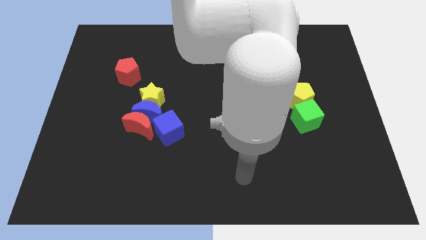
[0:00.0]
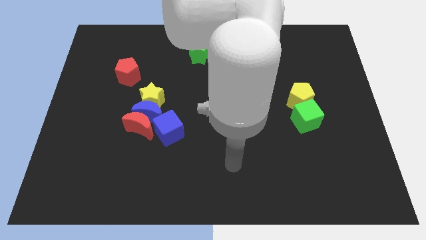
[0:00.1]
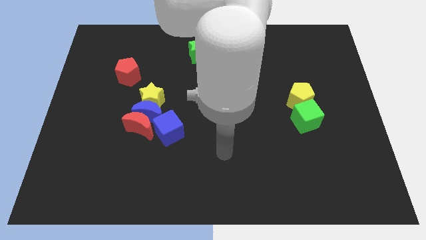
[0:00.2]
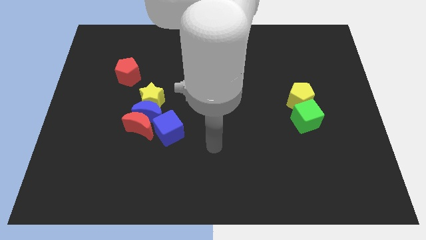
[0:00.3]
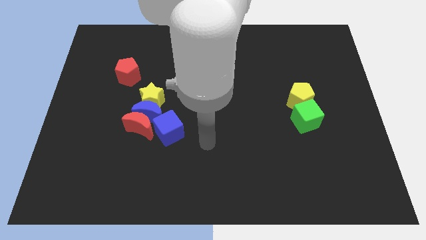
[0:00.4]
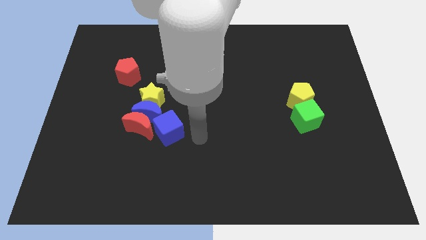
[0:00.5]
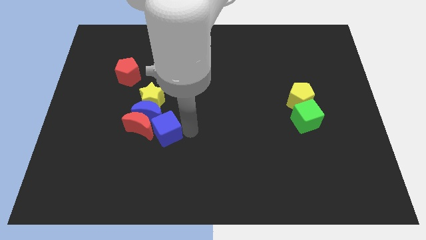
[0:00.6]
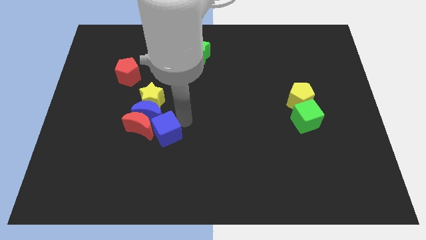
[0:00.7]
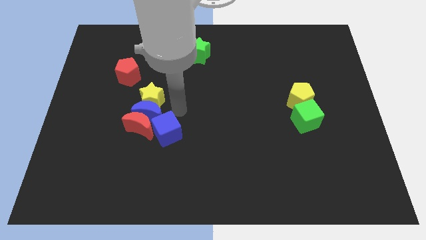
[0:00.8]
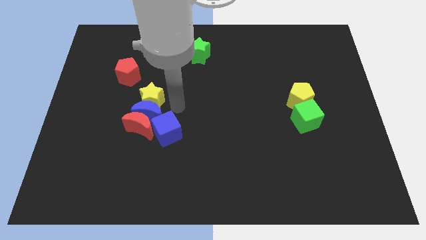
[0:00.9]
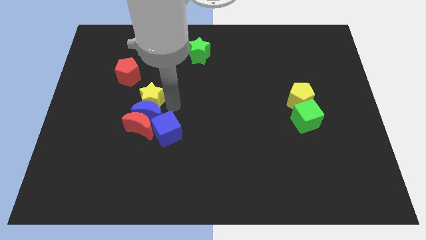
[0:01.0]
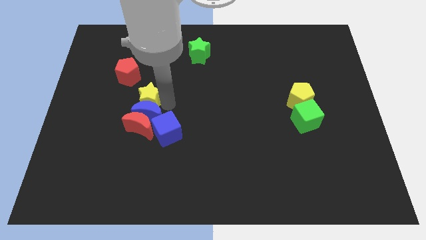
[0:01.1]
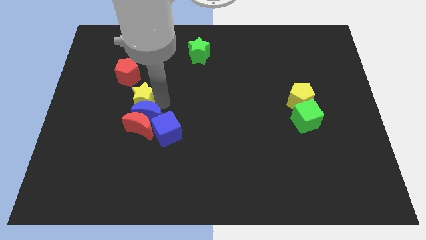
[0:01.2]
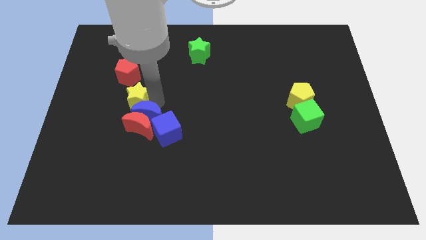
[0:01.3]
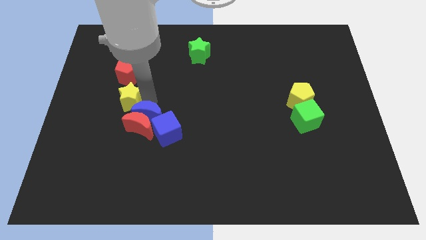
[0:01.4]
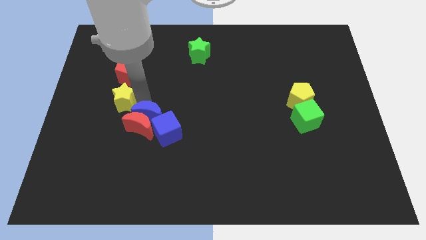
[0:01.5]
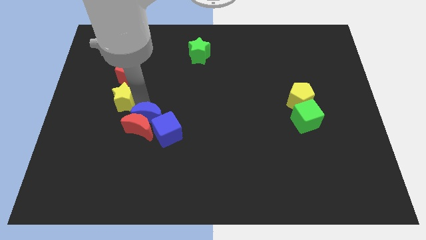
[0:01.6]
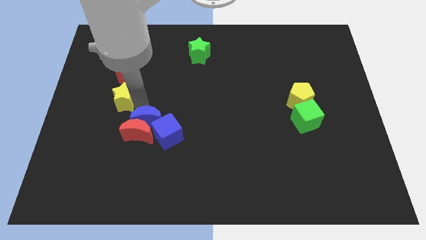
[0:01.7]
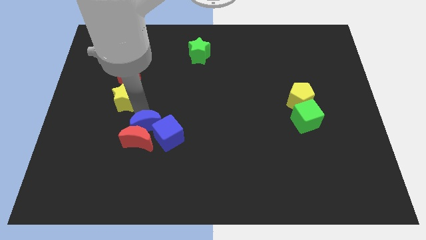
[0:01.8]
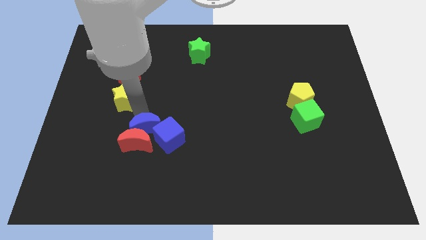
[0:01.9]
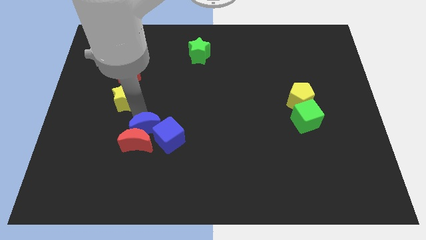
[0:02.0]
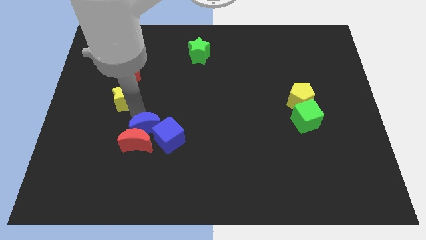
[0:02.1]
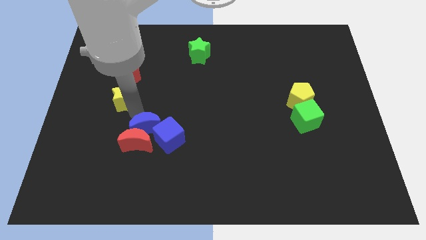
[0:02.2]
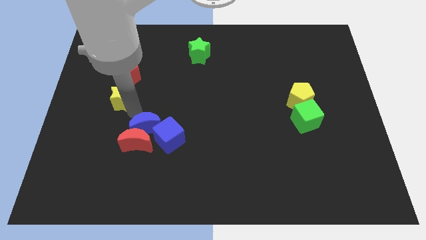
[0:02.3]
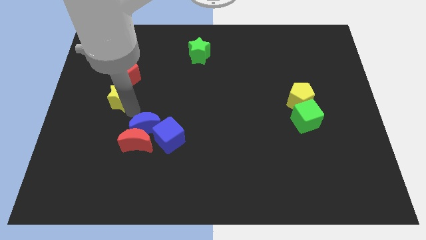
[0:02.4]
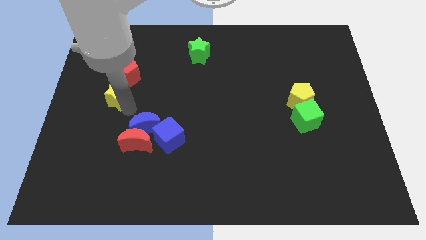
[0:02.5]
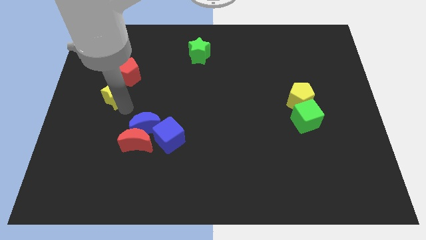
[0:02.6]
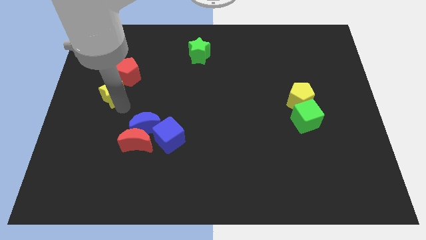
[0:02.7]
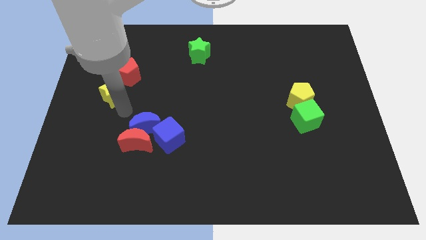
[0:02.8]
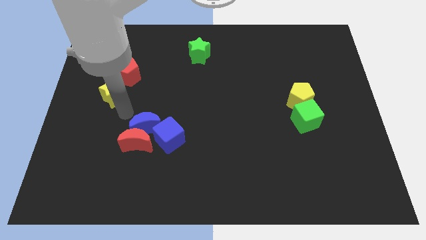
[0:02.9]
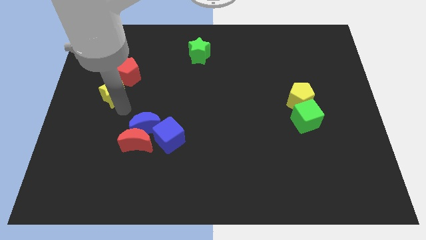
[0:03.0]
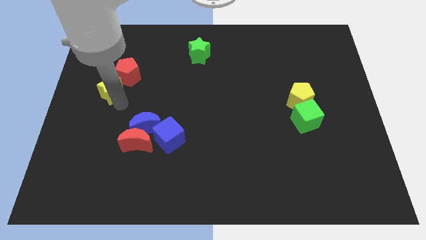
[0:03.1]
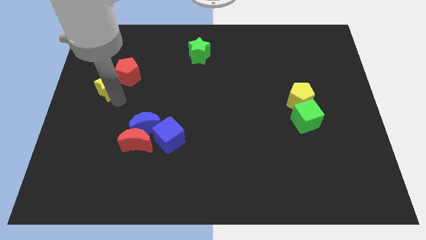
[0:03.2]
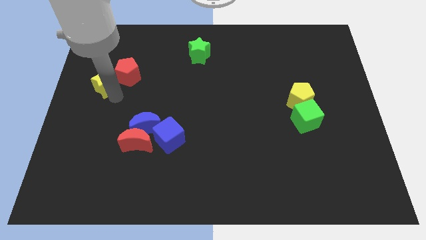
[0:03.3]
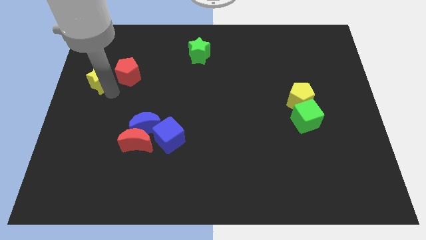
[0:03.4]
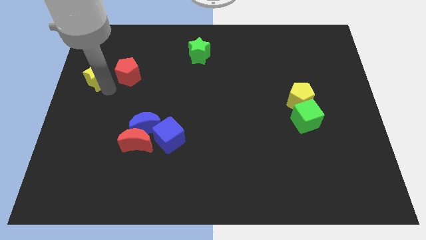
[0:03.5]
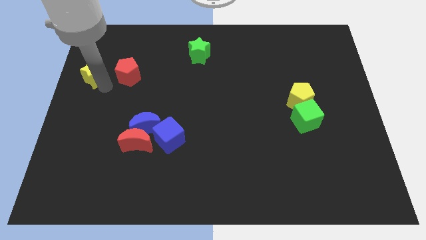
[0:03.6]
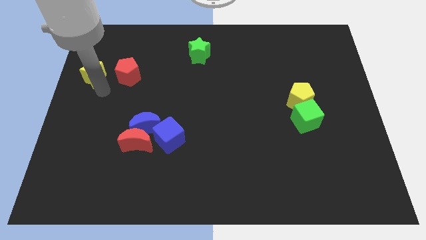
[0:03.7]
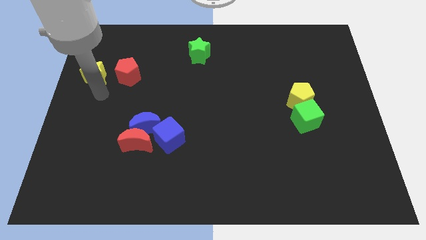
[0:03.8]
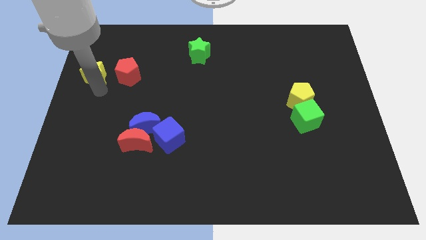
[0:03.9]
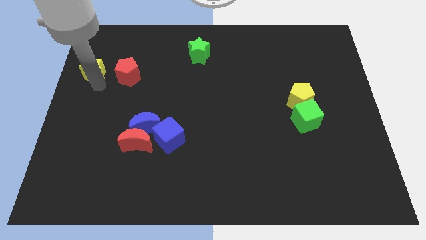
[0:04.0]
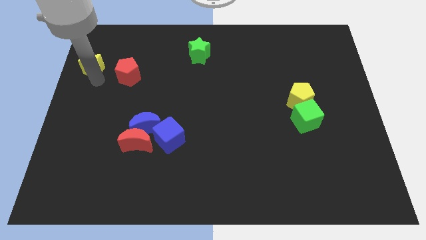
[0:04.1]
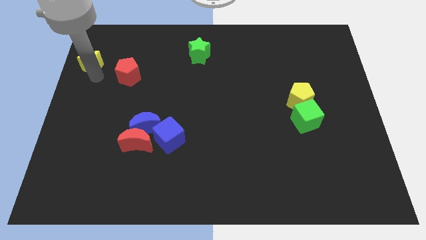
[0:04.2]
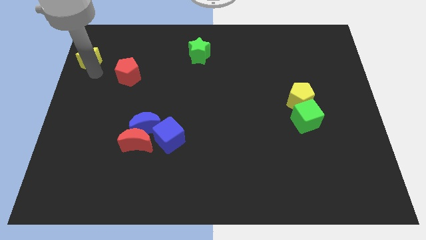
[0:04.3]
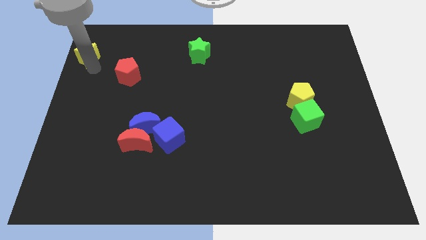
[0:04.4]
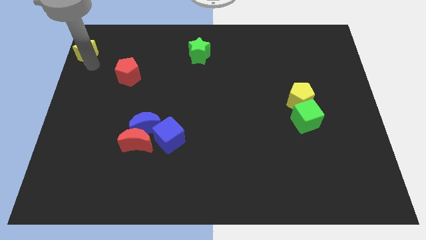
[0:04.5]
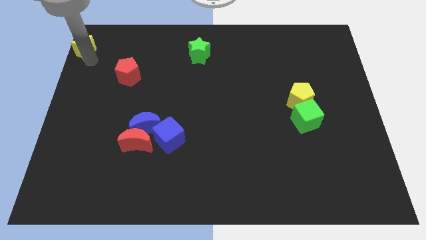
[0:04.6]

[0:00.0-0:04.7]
move the yellow star to the top left of the board

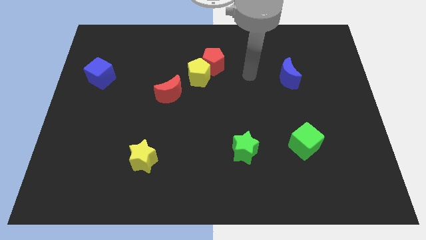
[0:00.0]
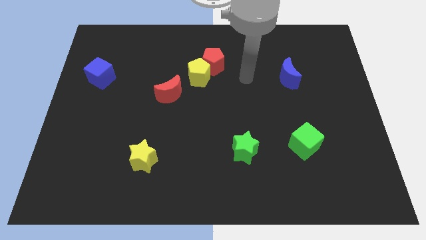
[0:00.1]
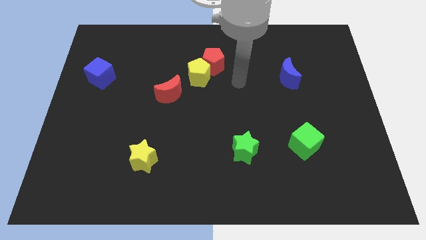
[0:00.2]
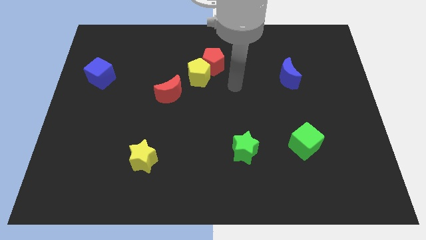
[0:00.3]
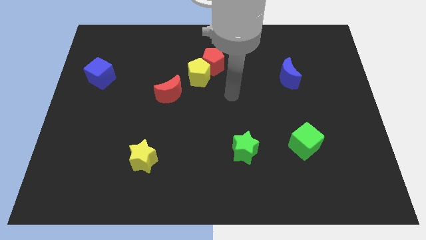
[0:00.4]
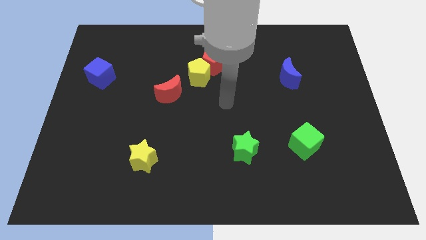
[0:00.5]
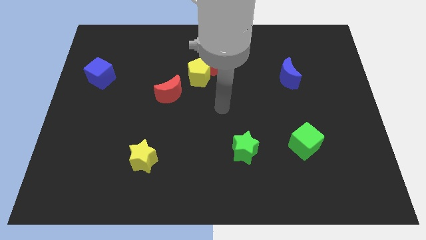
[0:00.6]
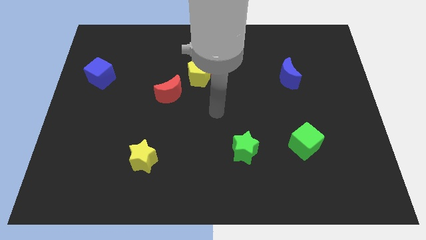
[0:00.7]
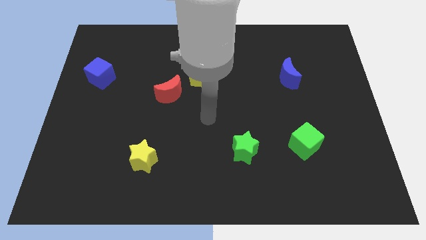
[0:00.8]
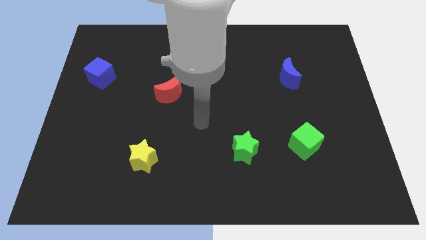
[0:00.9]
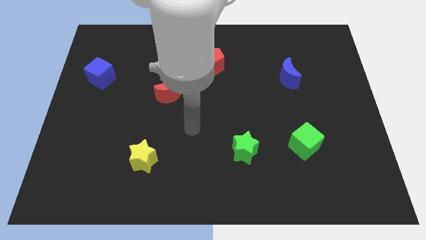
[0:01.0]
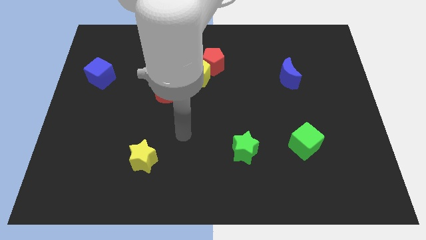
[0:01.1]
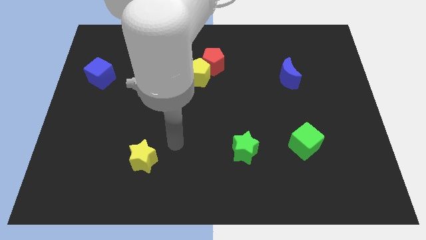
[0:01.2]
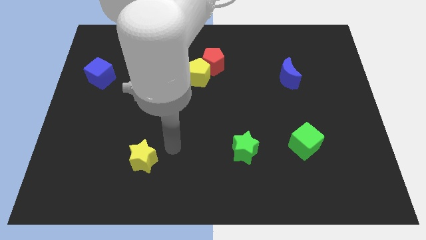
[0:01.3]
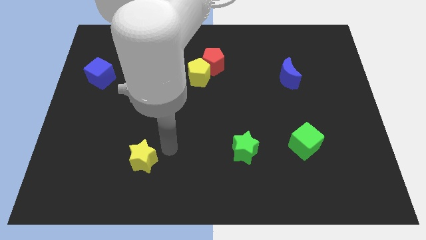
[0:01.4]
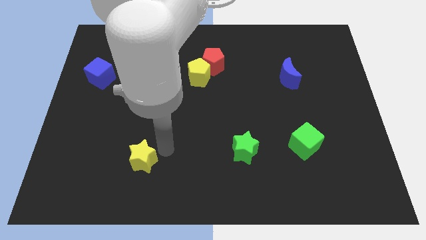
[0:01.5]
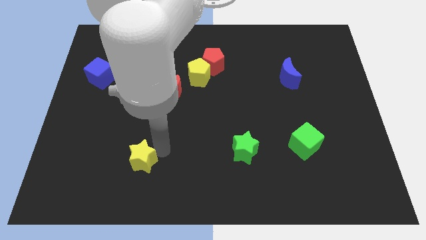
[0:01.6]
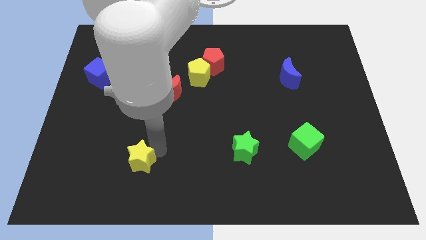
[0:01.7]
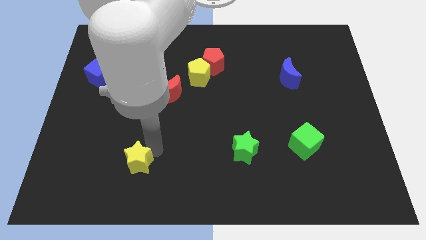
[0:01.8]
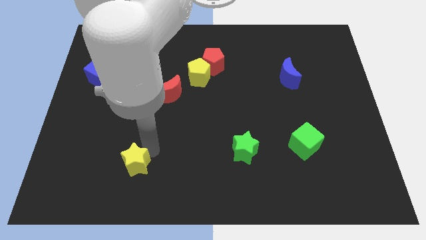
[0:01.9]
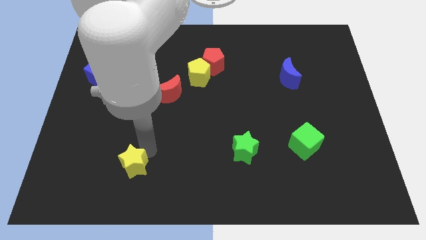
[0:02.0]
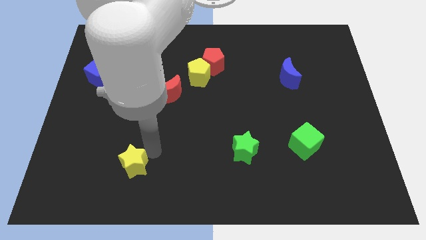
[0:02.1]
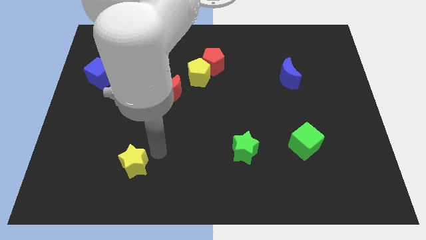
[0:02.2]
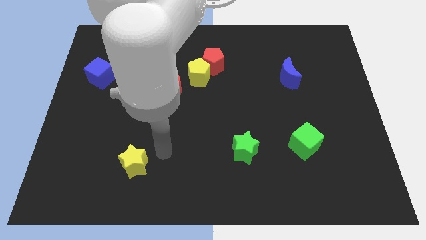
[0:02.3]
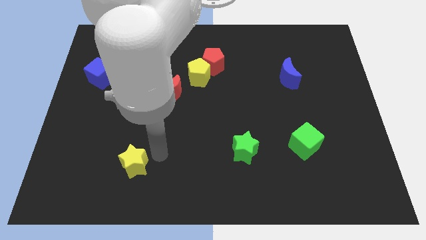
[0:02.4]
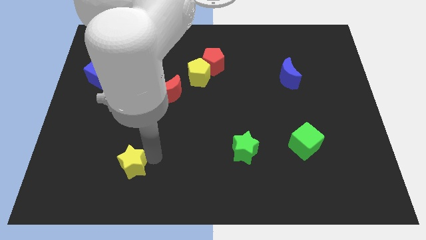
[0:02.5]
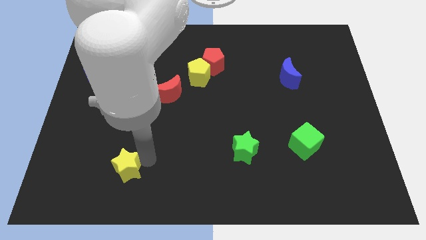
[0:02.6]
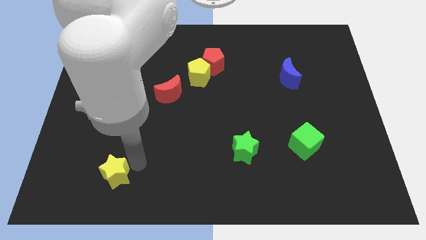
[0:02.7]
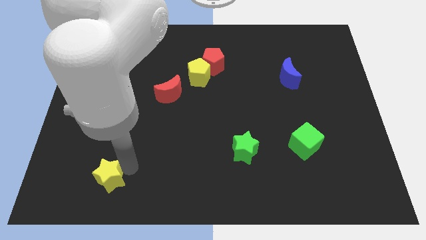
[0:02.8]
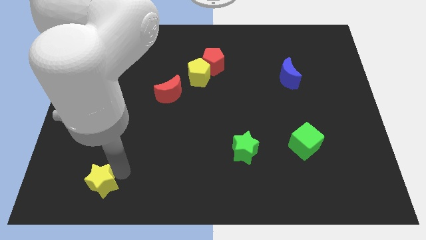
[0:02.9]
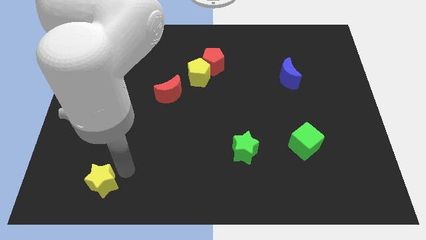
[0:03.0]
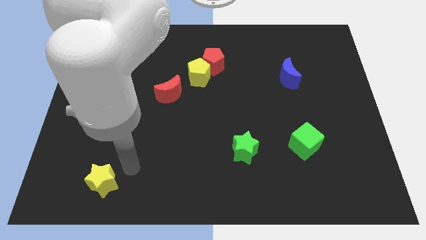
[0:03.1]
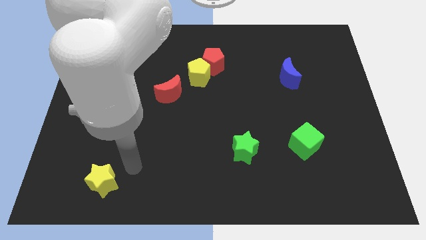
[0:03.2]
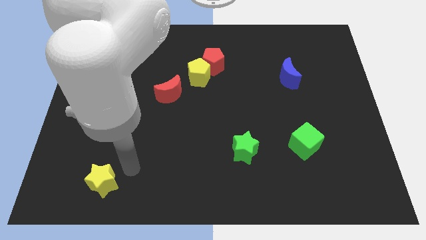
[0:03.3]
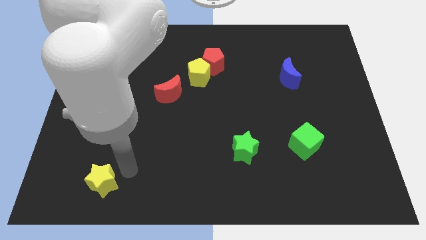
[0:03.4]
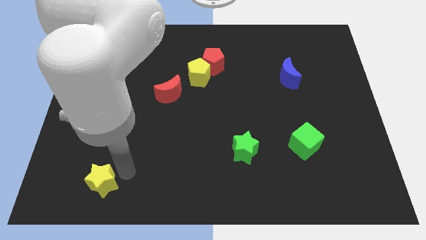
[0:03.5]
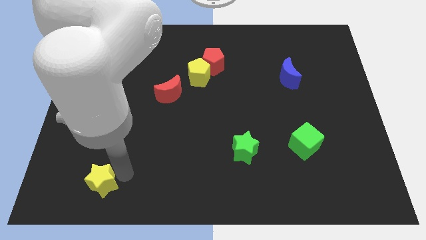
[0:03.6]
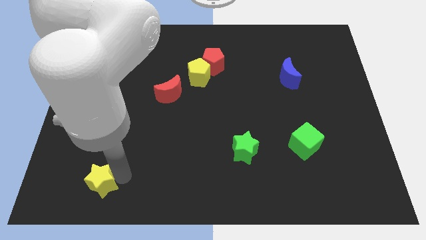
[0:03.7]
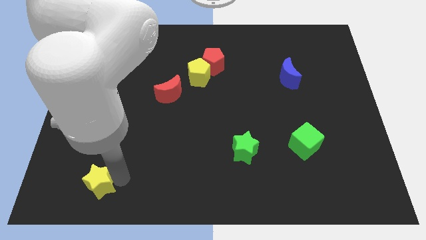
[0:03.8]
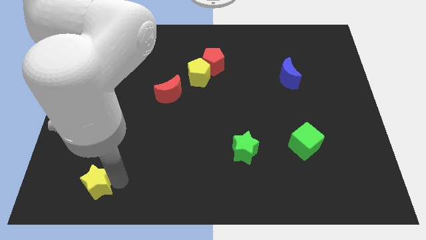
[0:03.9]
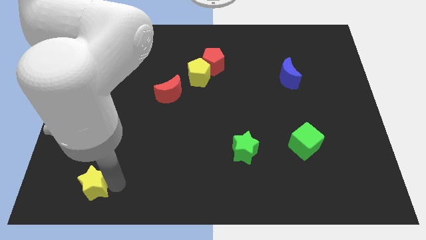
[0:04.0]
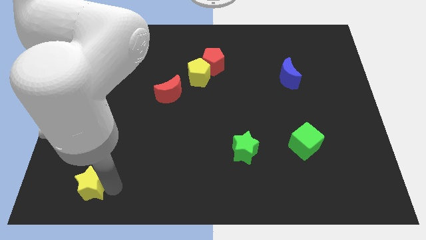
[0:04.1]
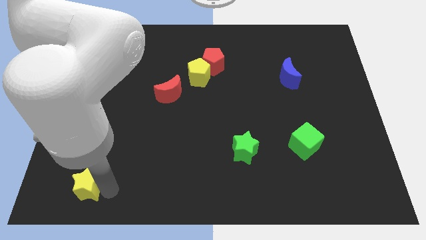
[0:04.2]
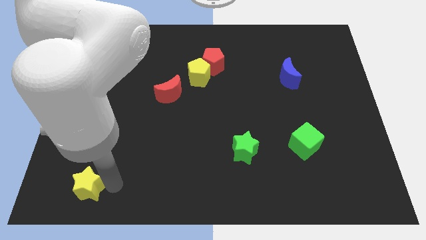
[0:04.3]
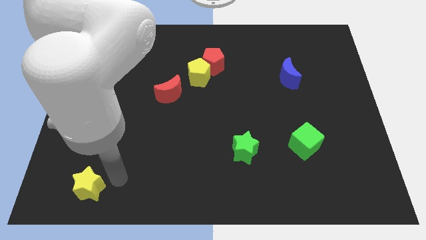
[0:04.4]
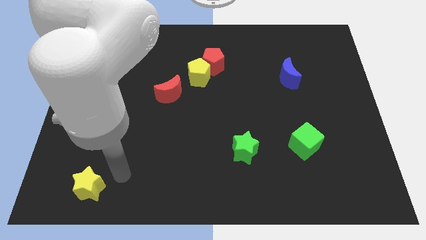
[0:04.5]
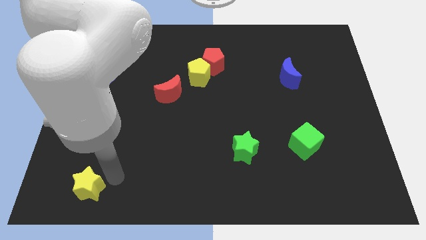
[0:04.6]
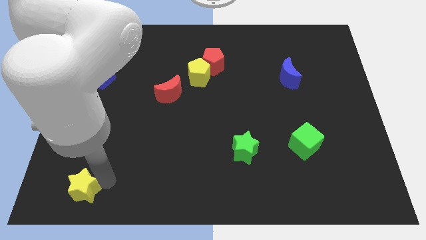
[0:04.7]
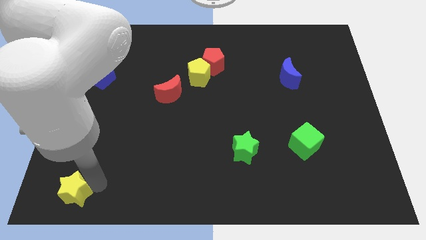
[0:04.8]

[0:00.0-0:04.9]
slide the yellow star to the bottom left corner
